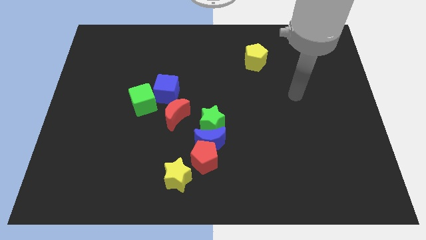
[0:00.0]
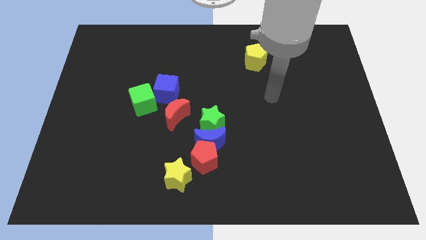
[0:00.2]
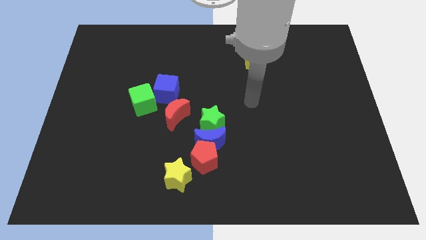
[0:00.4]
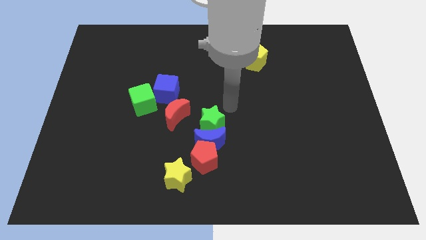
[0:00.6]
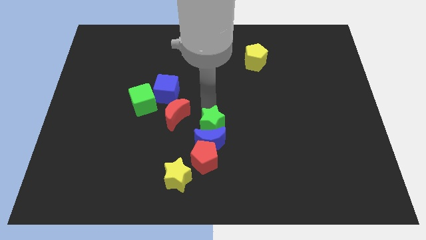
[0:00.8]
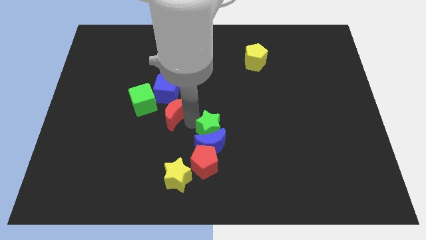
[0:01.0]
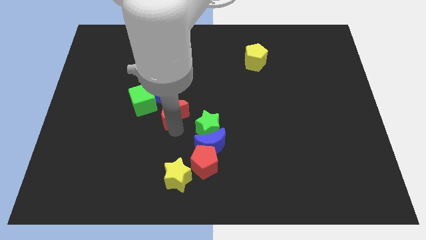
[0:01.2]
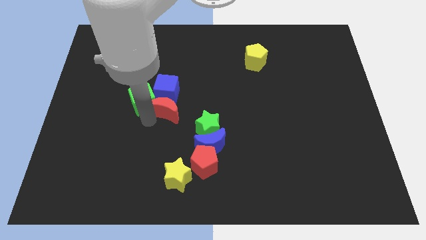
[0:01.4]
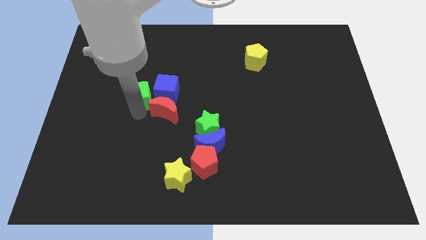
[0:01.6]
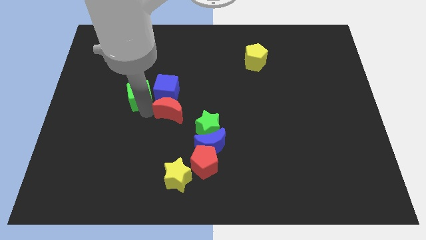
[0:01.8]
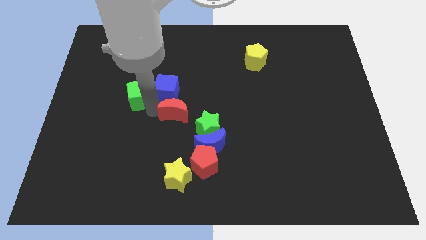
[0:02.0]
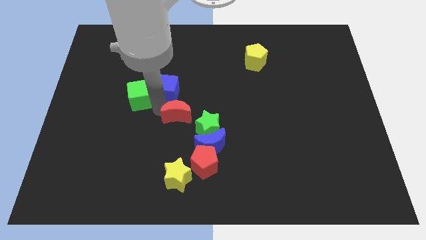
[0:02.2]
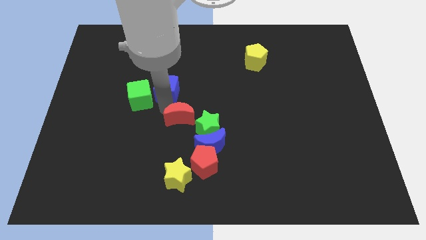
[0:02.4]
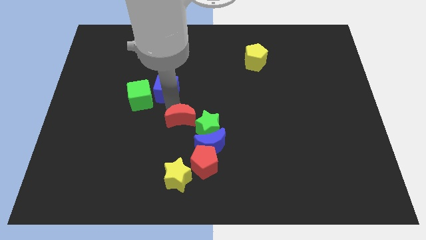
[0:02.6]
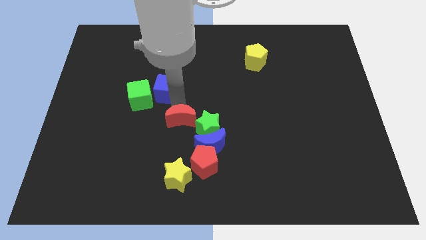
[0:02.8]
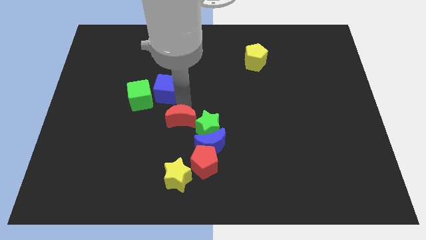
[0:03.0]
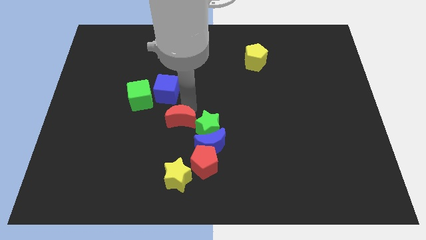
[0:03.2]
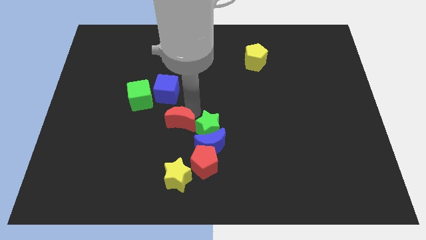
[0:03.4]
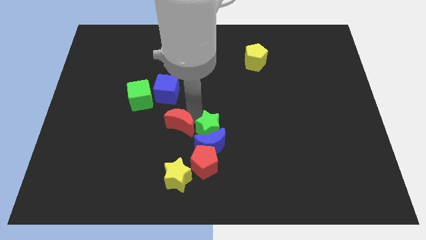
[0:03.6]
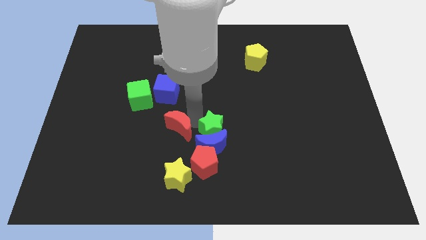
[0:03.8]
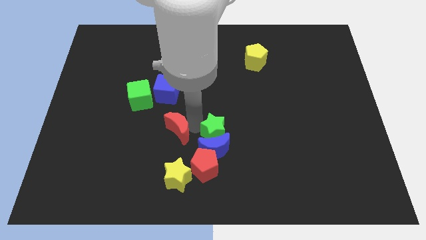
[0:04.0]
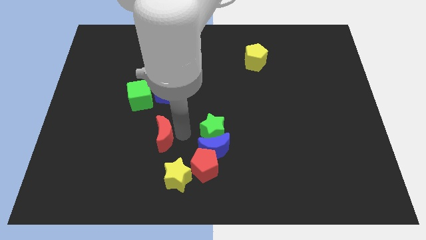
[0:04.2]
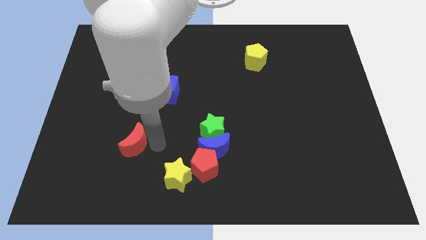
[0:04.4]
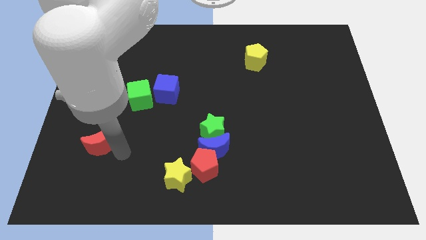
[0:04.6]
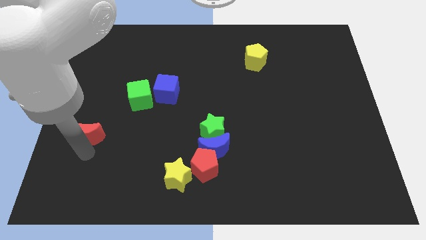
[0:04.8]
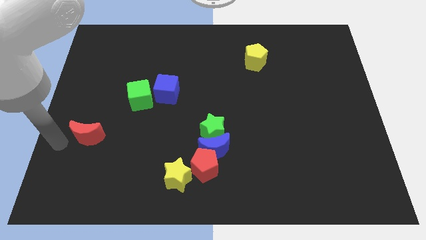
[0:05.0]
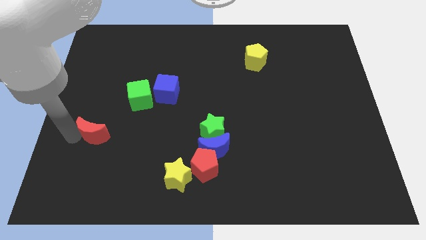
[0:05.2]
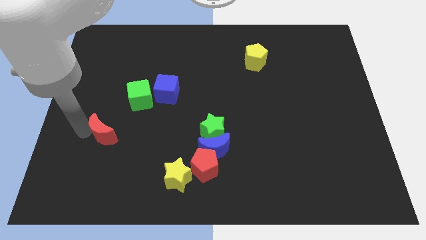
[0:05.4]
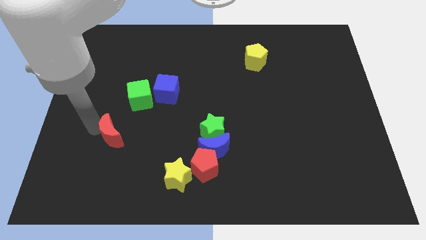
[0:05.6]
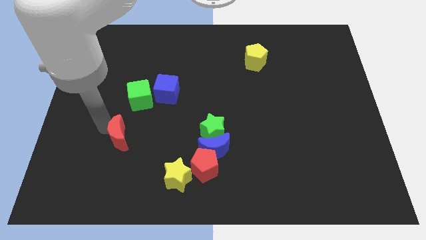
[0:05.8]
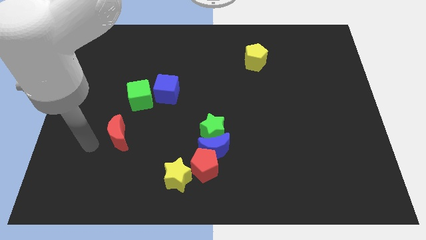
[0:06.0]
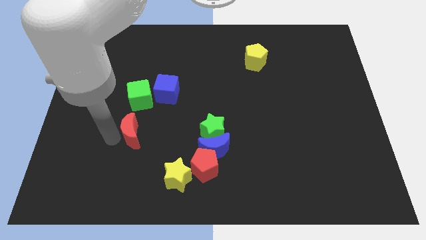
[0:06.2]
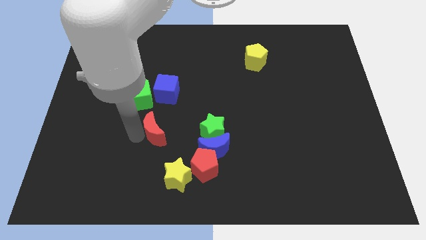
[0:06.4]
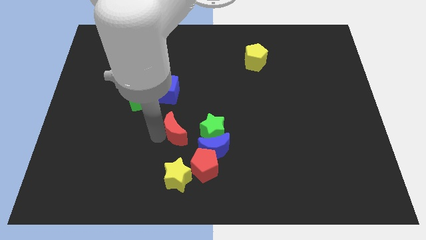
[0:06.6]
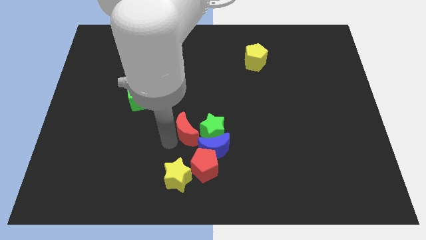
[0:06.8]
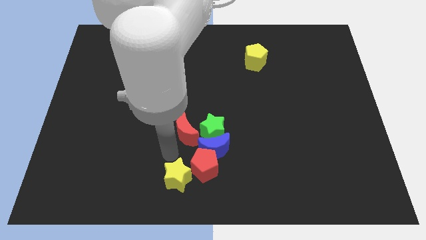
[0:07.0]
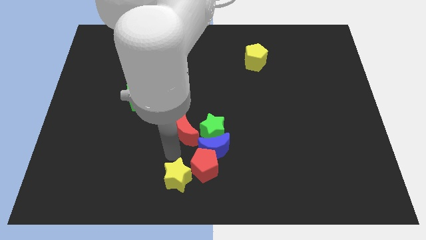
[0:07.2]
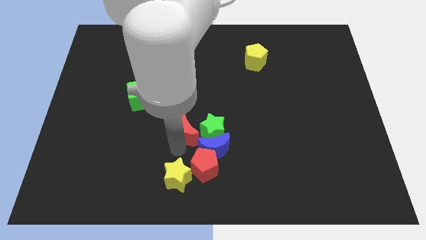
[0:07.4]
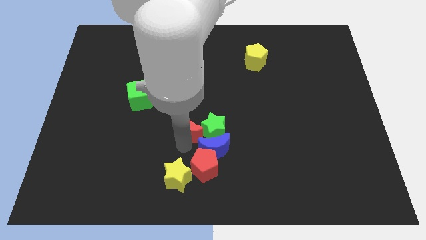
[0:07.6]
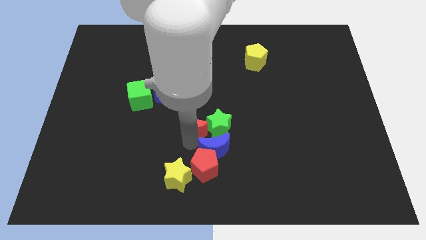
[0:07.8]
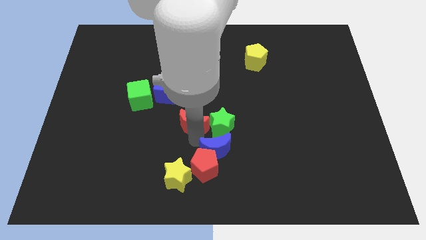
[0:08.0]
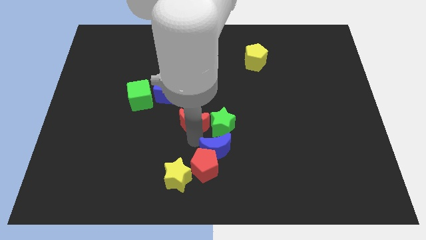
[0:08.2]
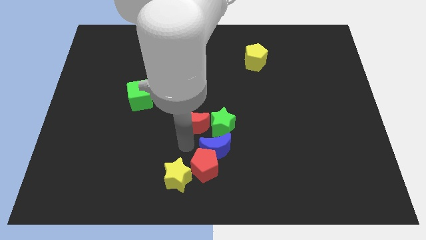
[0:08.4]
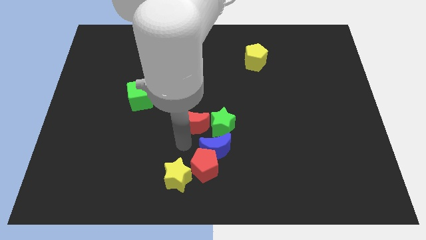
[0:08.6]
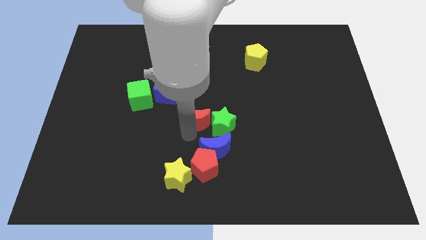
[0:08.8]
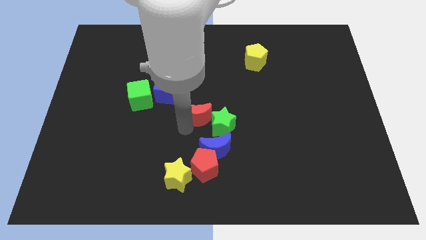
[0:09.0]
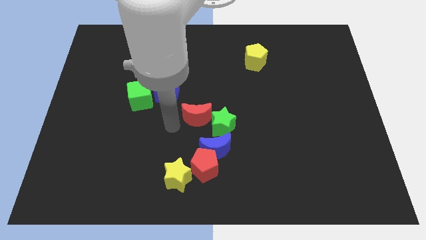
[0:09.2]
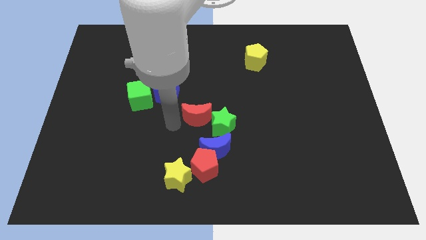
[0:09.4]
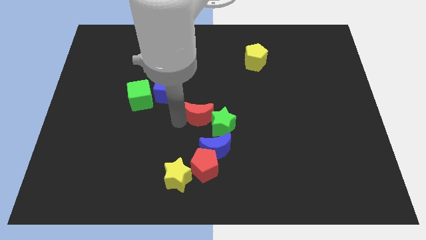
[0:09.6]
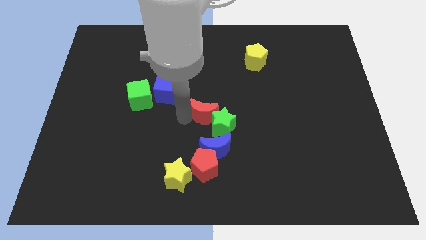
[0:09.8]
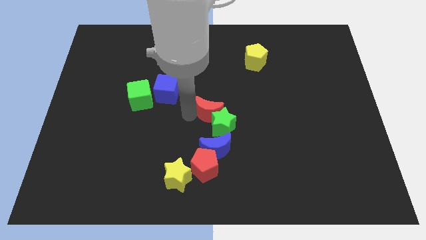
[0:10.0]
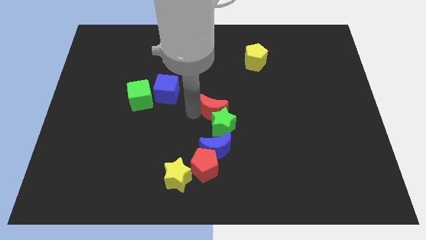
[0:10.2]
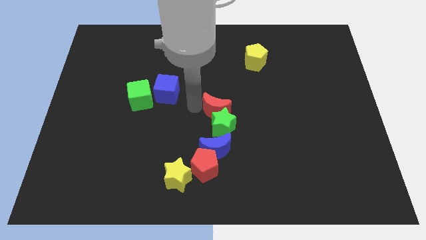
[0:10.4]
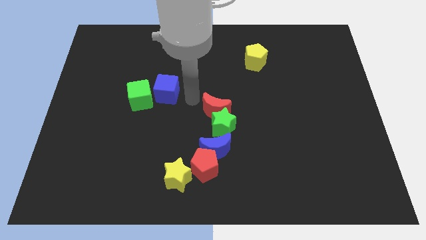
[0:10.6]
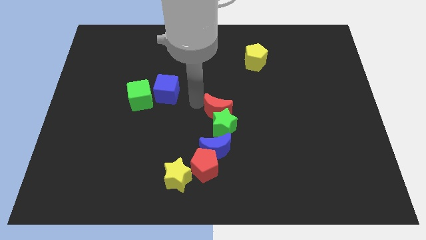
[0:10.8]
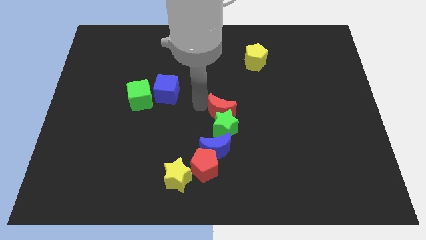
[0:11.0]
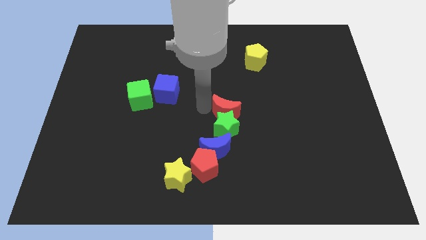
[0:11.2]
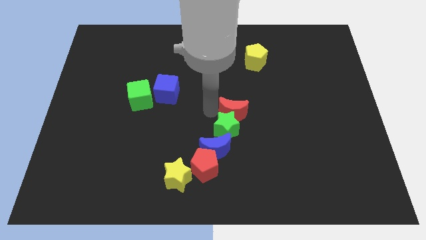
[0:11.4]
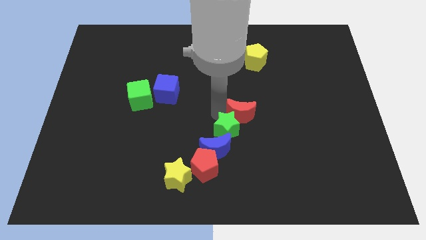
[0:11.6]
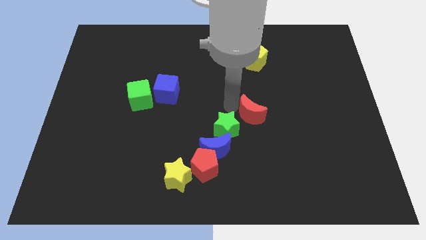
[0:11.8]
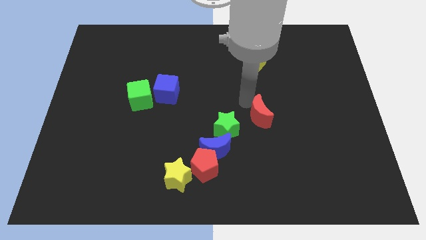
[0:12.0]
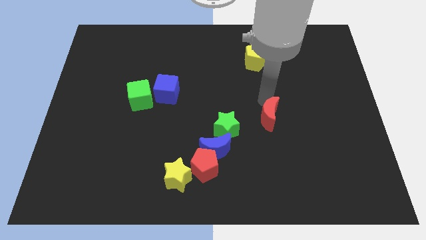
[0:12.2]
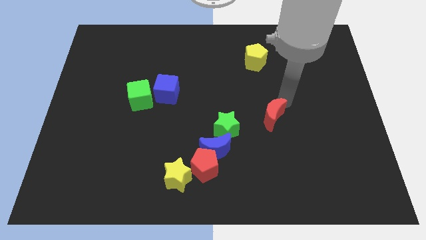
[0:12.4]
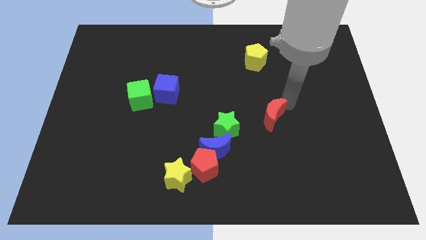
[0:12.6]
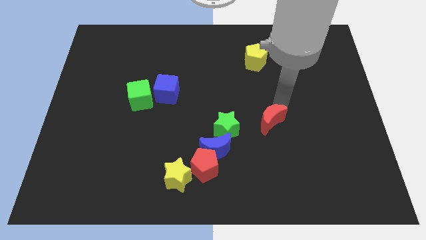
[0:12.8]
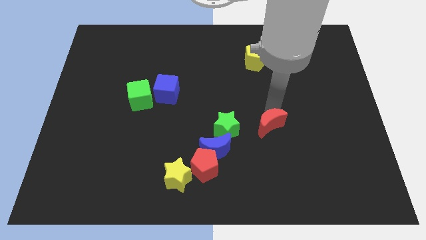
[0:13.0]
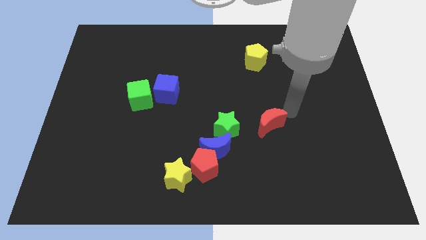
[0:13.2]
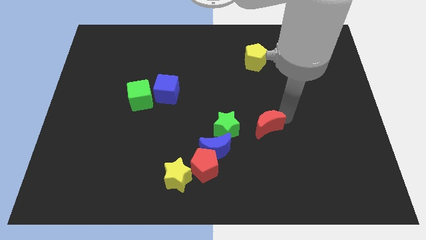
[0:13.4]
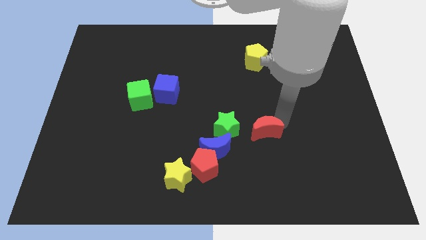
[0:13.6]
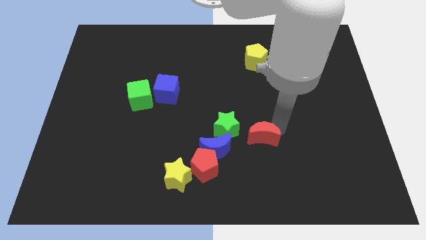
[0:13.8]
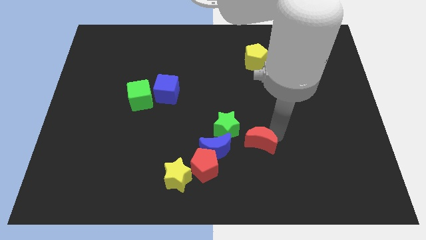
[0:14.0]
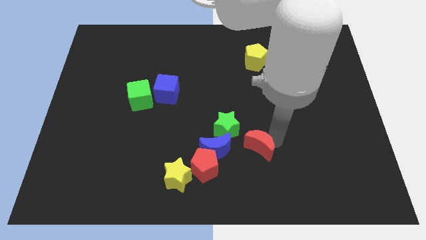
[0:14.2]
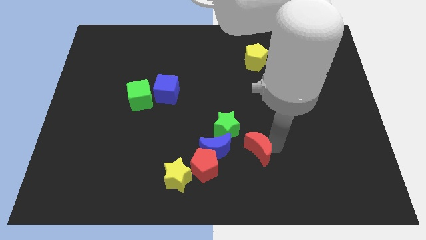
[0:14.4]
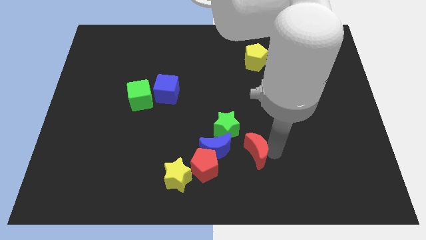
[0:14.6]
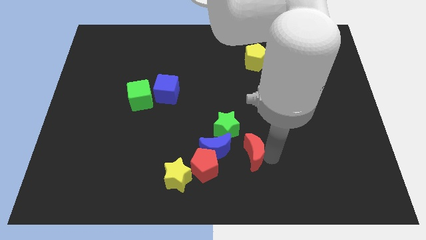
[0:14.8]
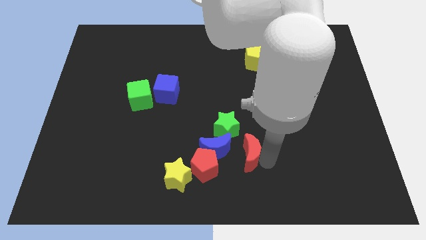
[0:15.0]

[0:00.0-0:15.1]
move the red moon to the top right side of the red pentagon
